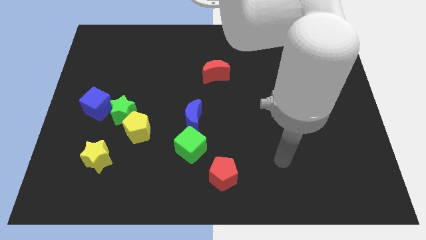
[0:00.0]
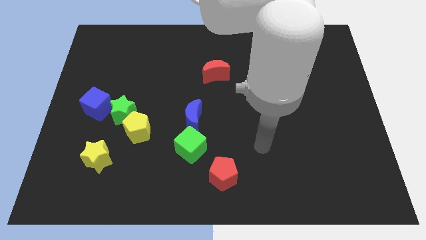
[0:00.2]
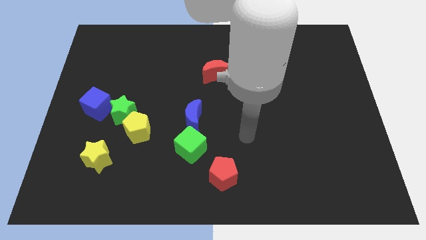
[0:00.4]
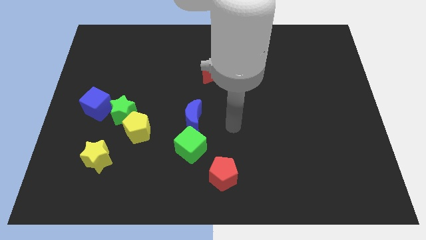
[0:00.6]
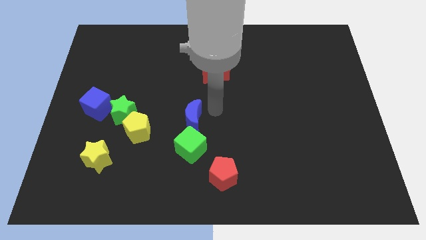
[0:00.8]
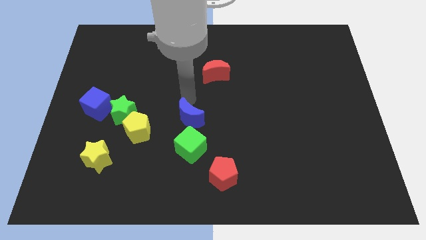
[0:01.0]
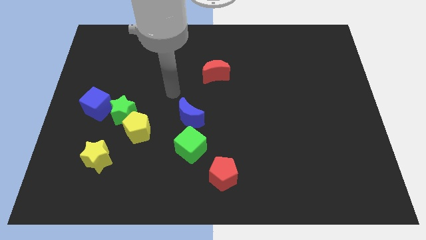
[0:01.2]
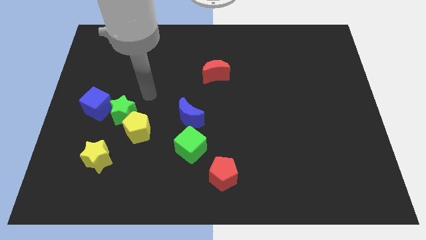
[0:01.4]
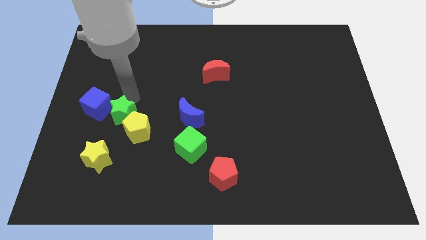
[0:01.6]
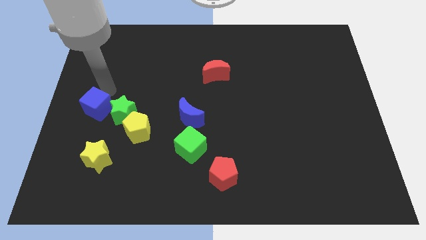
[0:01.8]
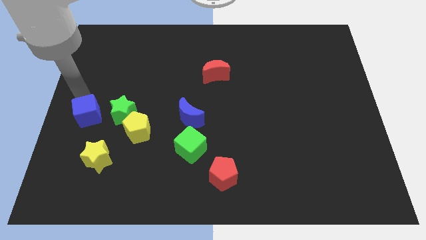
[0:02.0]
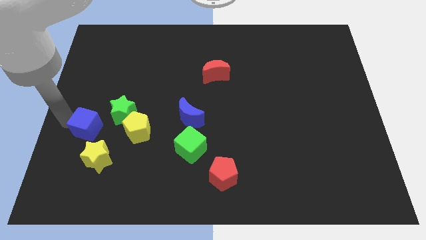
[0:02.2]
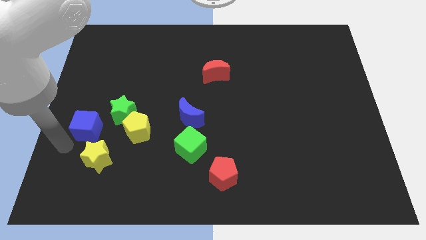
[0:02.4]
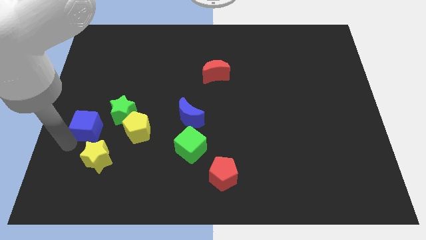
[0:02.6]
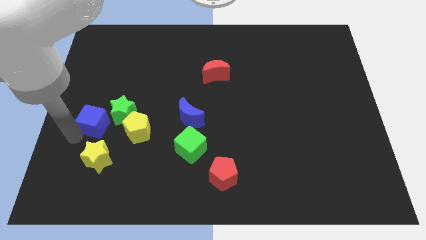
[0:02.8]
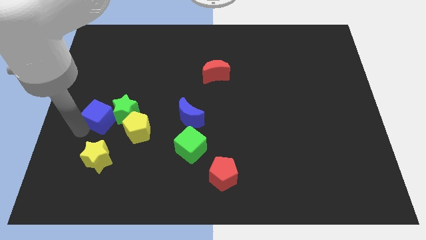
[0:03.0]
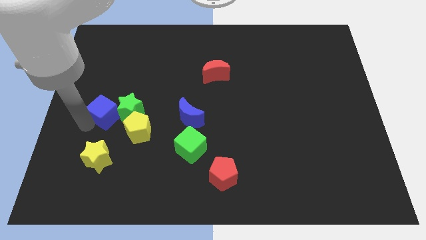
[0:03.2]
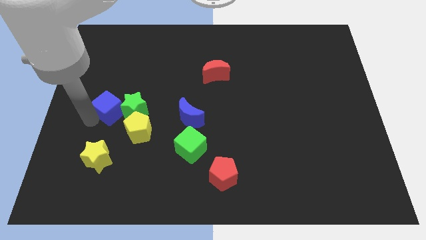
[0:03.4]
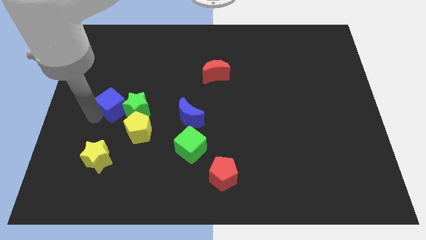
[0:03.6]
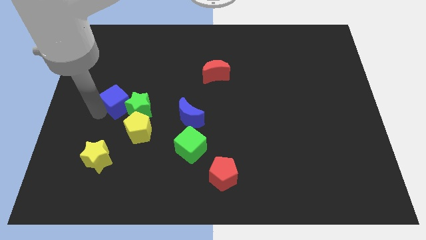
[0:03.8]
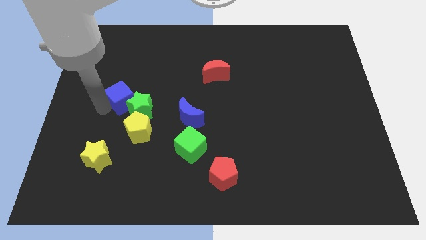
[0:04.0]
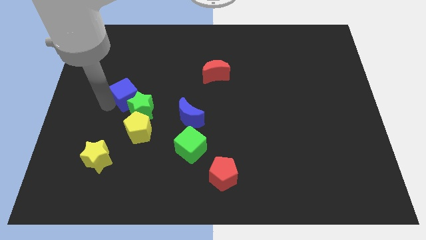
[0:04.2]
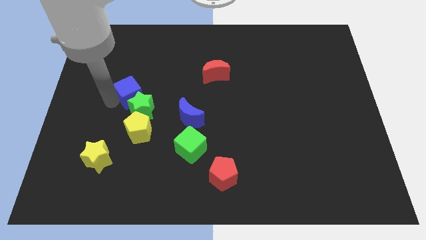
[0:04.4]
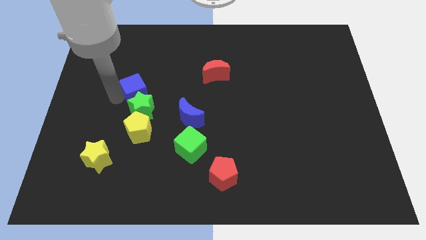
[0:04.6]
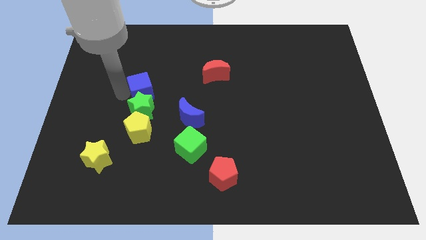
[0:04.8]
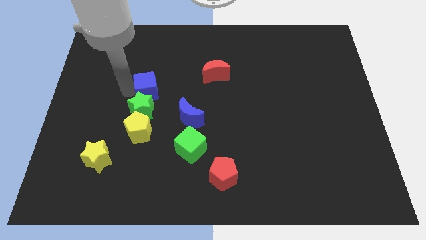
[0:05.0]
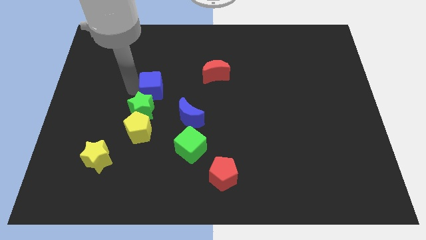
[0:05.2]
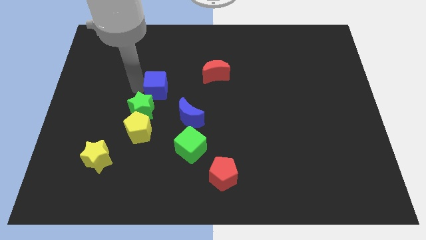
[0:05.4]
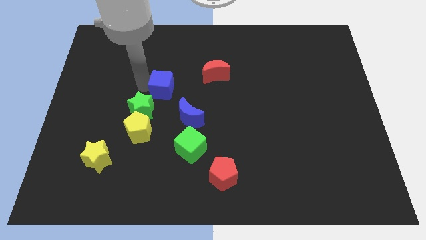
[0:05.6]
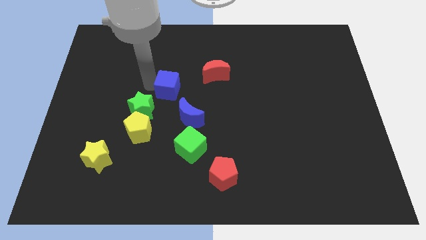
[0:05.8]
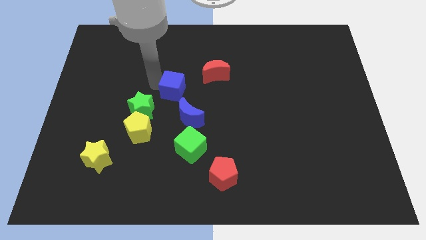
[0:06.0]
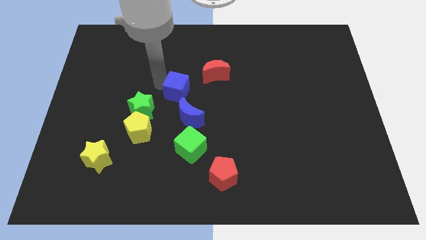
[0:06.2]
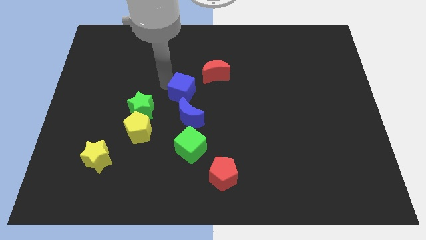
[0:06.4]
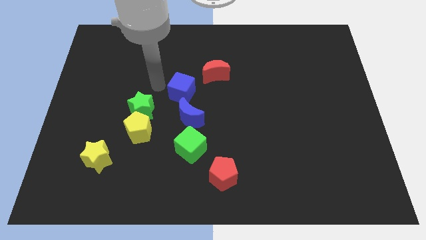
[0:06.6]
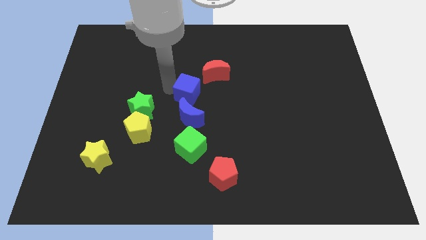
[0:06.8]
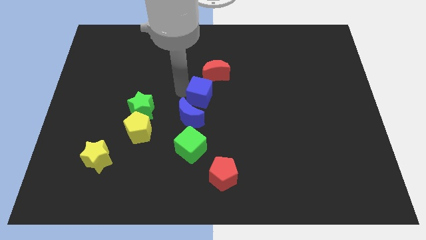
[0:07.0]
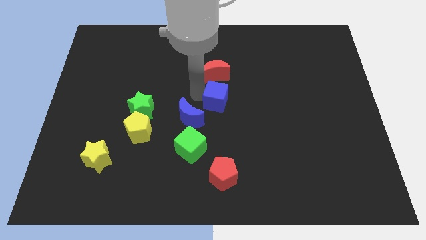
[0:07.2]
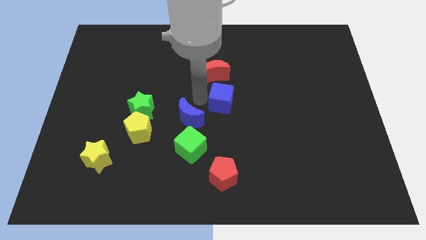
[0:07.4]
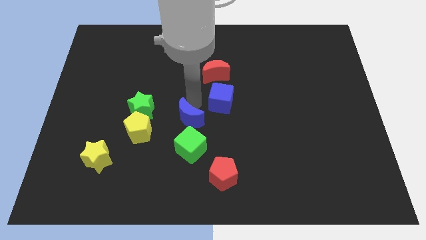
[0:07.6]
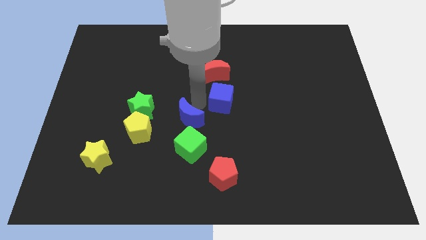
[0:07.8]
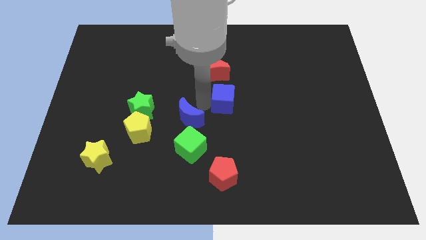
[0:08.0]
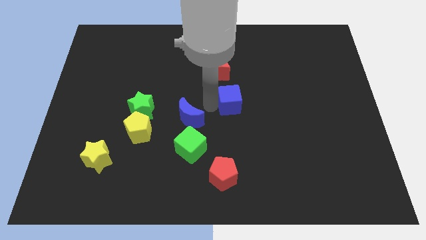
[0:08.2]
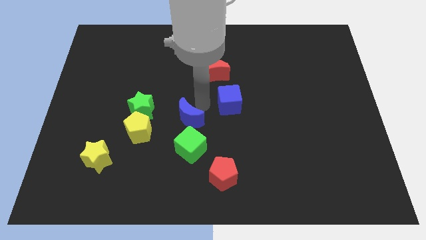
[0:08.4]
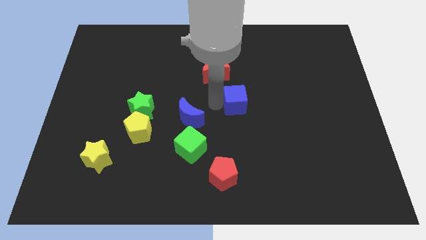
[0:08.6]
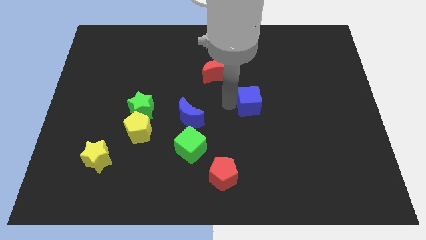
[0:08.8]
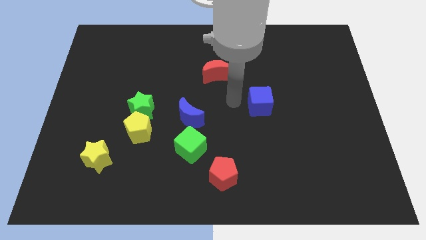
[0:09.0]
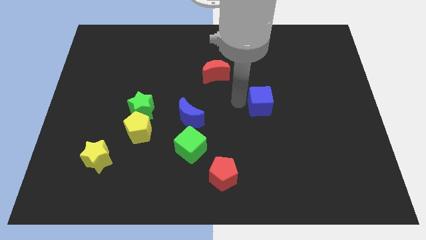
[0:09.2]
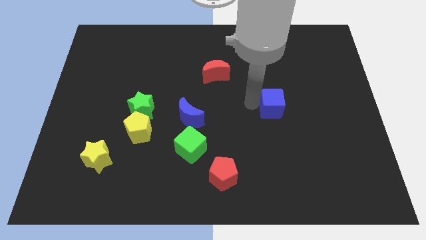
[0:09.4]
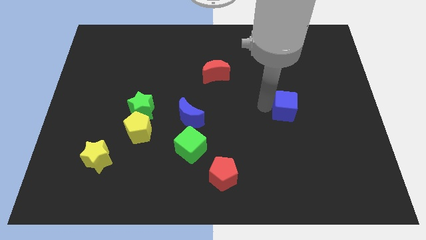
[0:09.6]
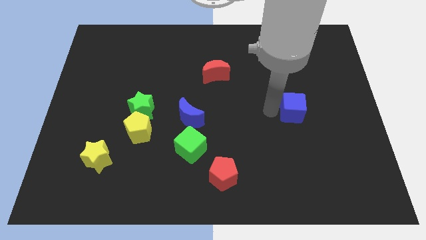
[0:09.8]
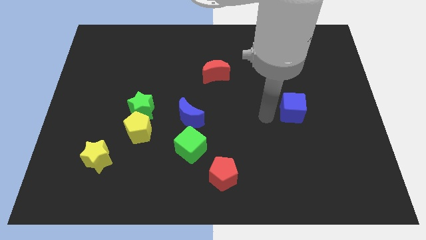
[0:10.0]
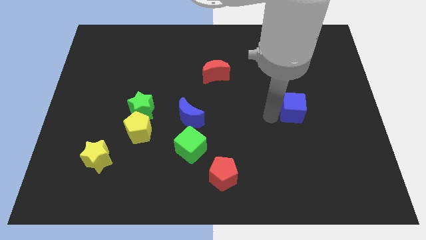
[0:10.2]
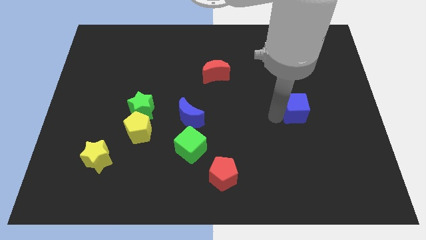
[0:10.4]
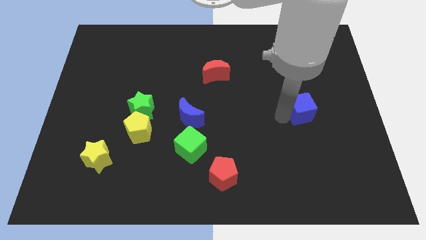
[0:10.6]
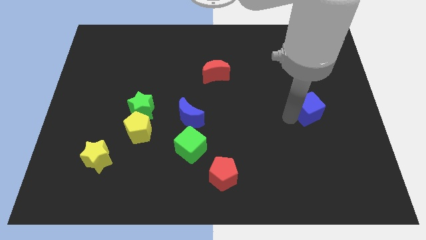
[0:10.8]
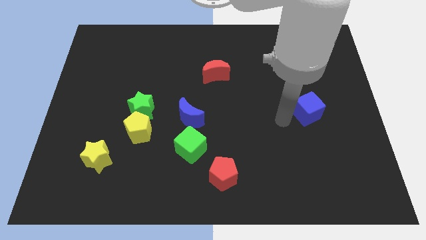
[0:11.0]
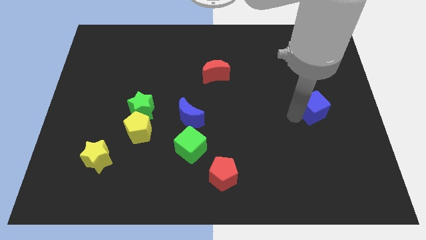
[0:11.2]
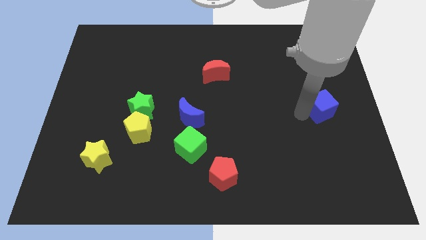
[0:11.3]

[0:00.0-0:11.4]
put the blue cube to the right side of the board
